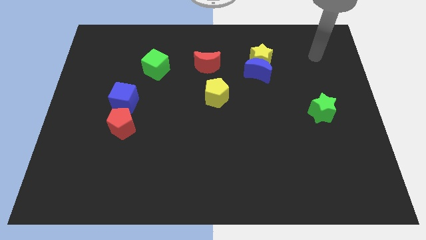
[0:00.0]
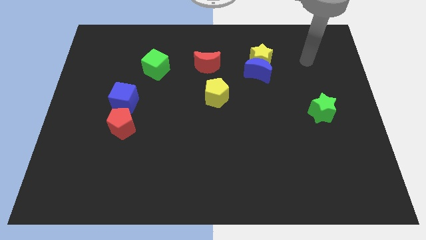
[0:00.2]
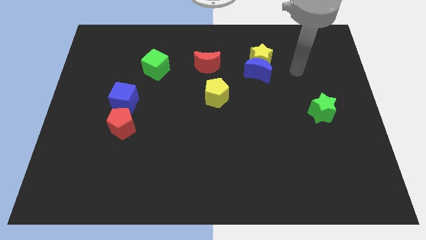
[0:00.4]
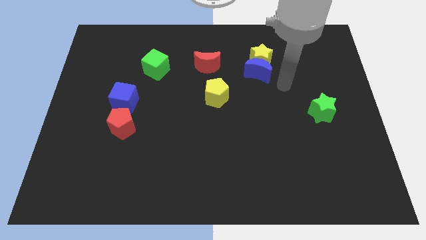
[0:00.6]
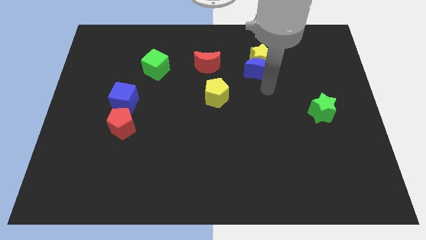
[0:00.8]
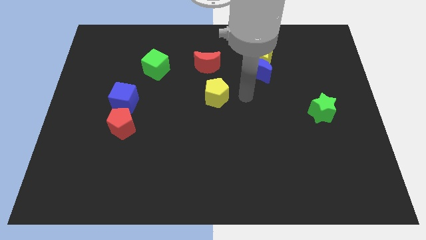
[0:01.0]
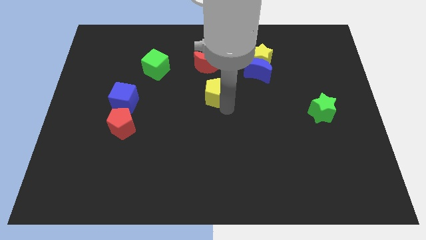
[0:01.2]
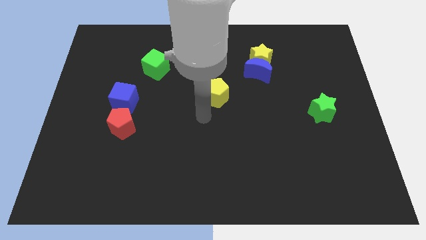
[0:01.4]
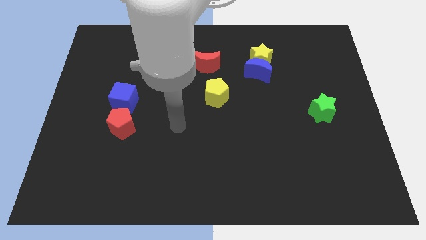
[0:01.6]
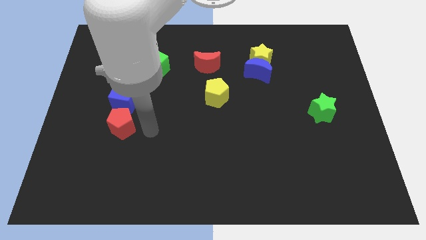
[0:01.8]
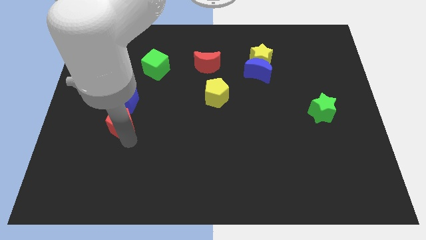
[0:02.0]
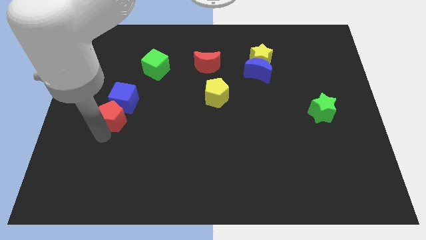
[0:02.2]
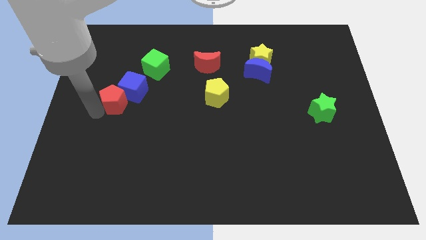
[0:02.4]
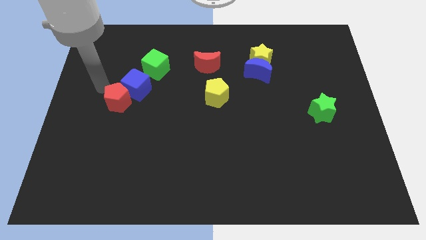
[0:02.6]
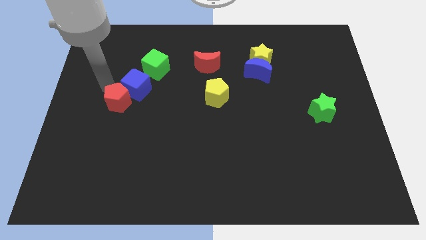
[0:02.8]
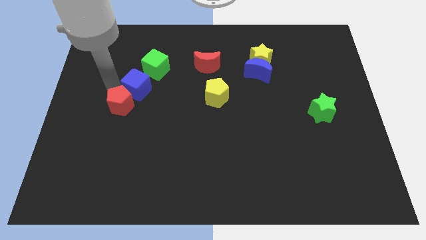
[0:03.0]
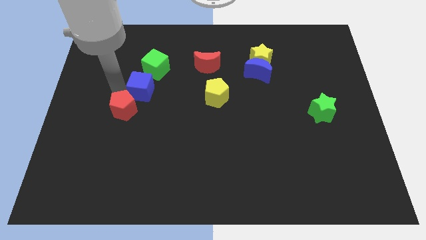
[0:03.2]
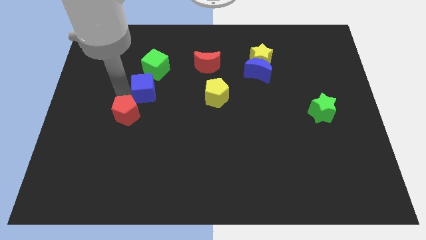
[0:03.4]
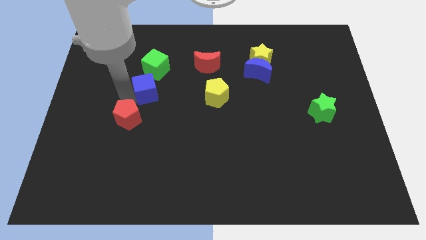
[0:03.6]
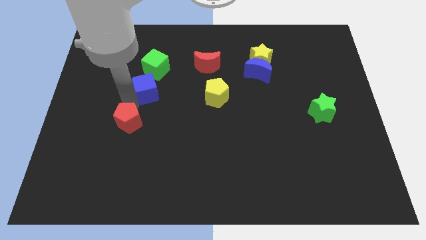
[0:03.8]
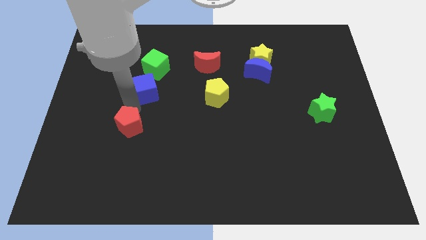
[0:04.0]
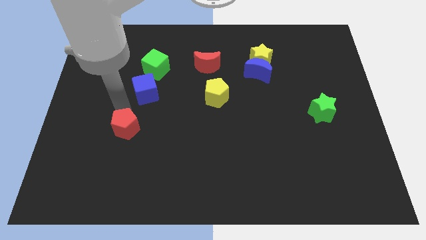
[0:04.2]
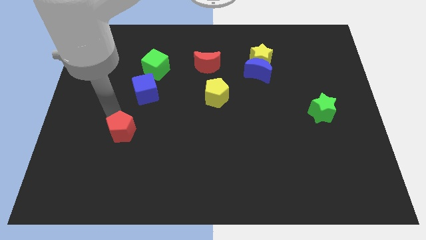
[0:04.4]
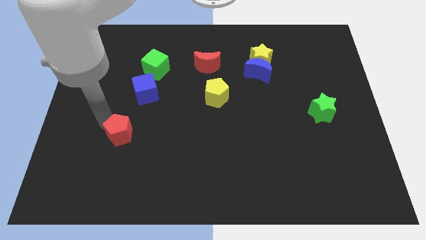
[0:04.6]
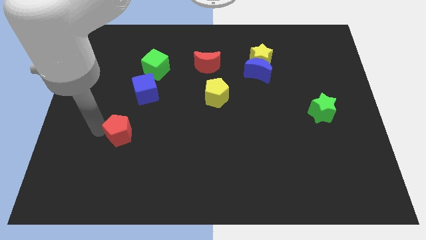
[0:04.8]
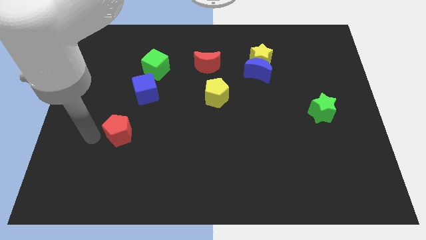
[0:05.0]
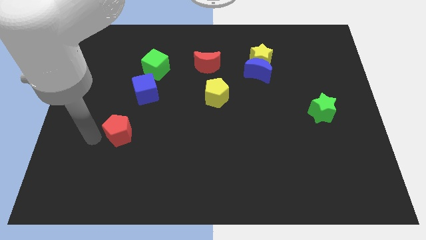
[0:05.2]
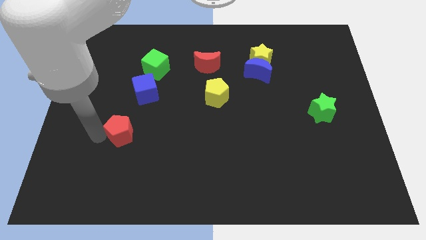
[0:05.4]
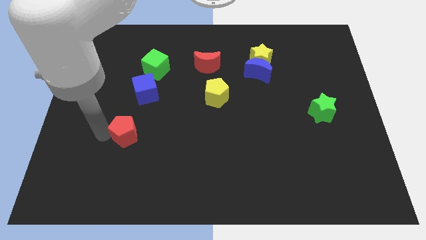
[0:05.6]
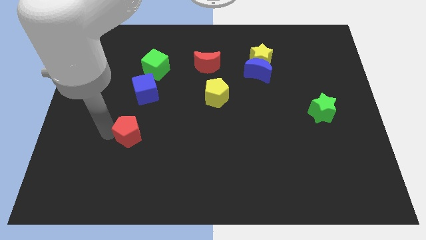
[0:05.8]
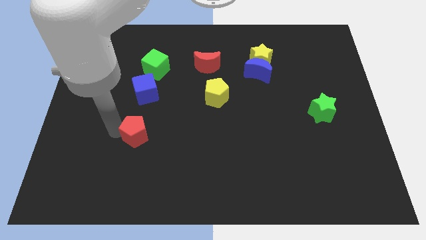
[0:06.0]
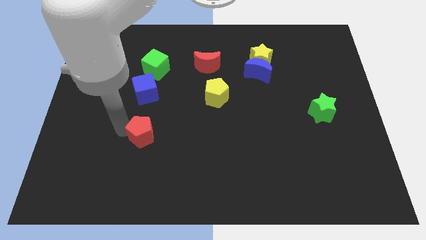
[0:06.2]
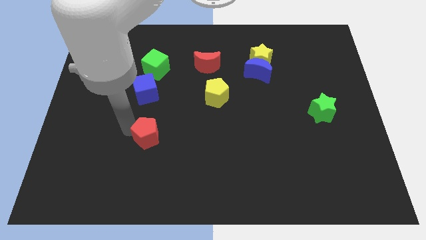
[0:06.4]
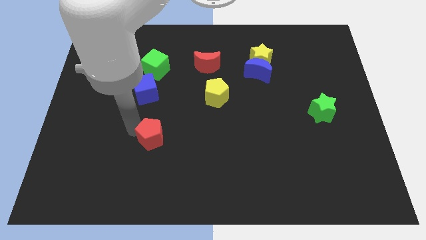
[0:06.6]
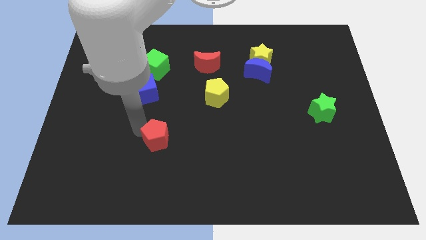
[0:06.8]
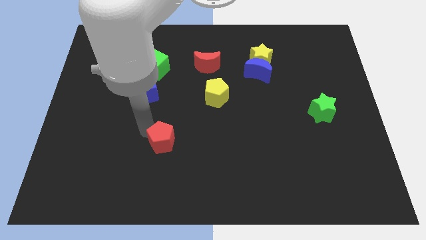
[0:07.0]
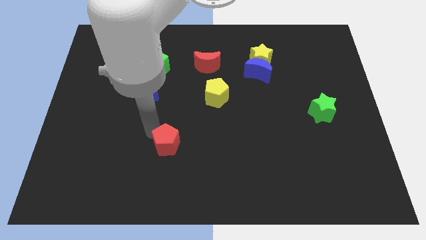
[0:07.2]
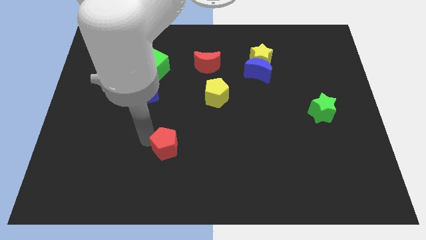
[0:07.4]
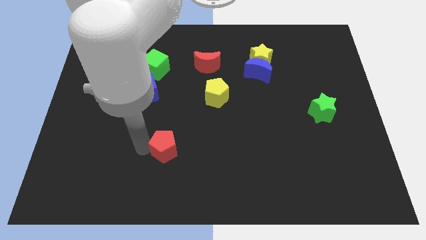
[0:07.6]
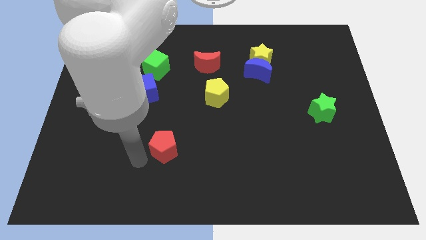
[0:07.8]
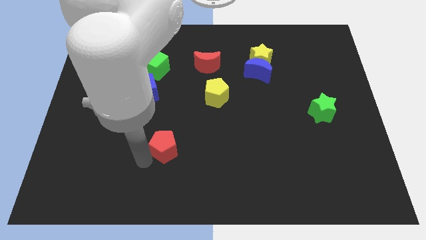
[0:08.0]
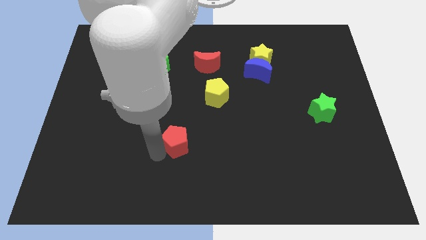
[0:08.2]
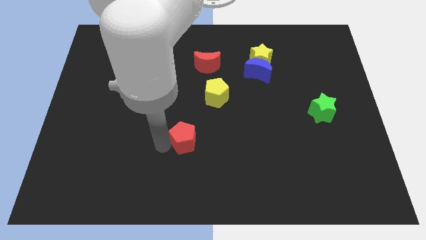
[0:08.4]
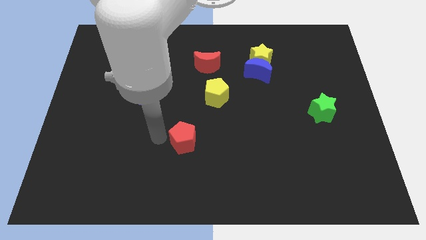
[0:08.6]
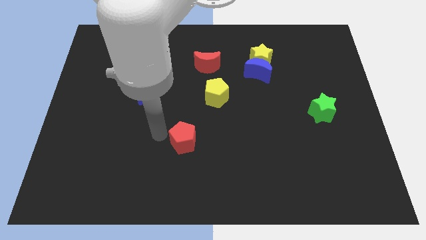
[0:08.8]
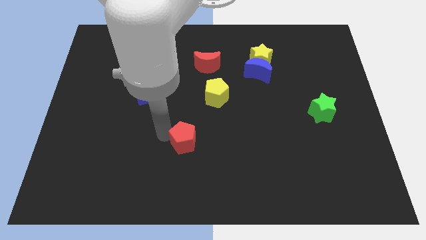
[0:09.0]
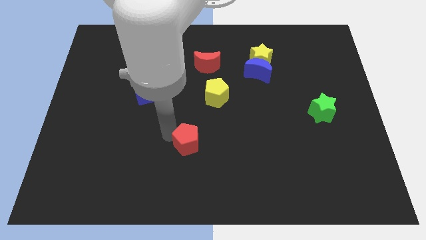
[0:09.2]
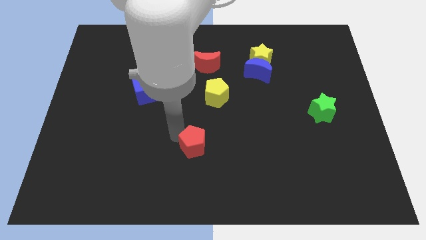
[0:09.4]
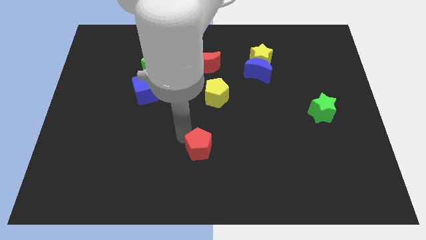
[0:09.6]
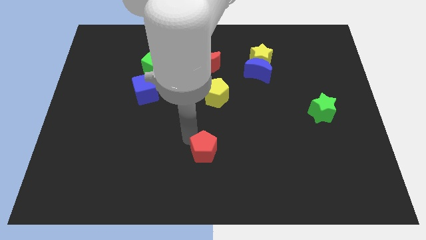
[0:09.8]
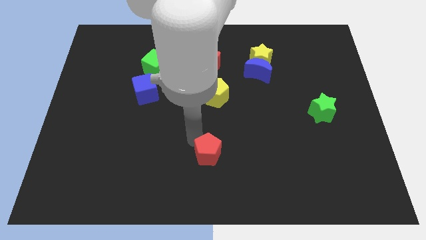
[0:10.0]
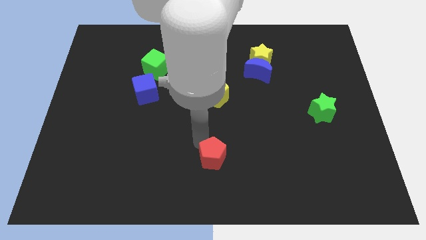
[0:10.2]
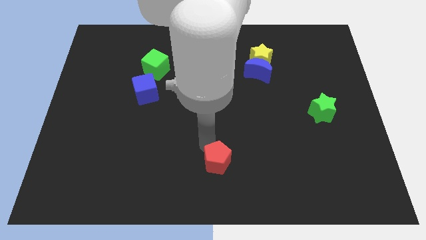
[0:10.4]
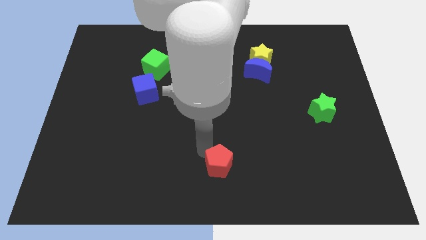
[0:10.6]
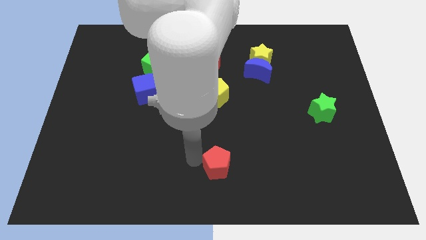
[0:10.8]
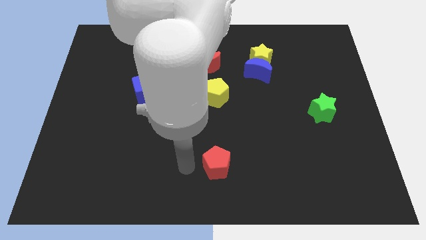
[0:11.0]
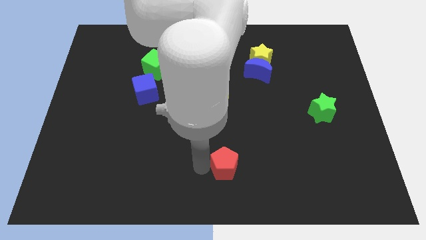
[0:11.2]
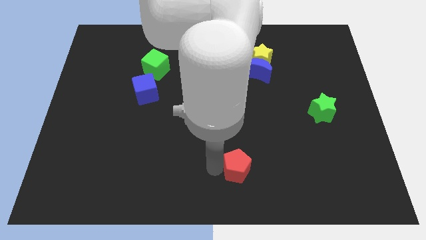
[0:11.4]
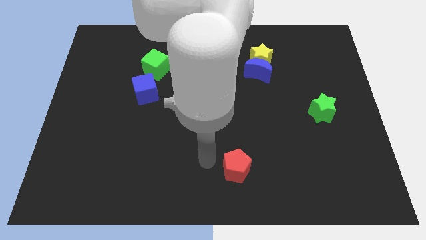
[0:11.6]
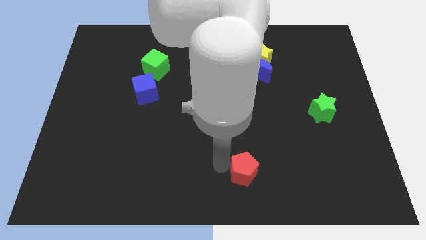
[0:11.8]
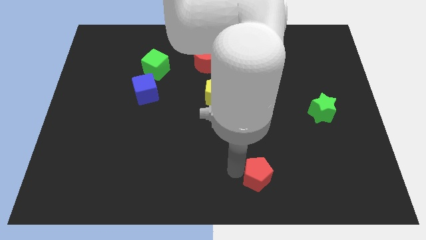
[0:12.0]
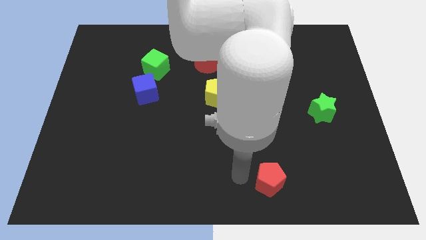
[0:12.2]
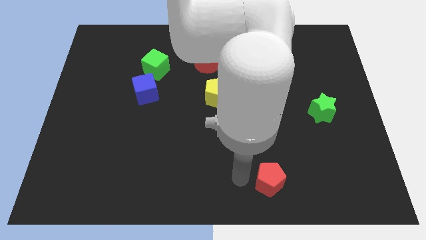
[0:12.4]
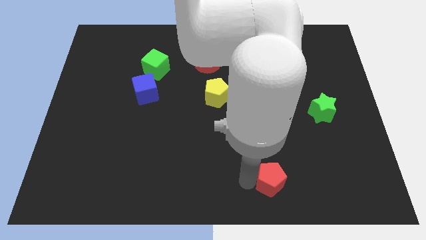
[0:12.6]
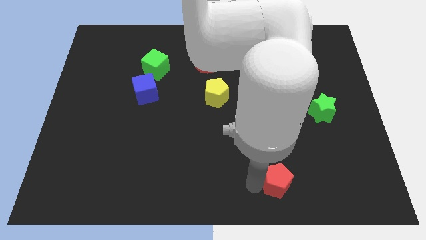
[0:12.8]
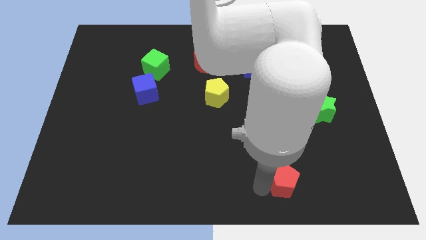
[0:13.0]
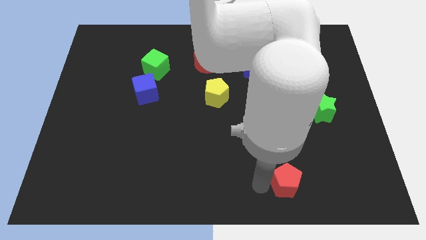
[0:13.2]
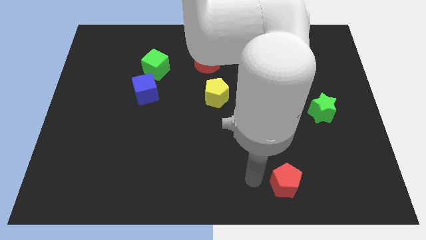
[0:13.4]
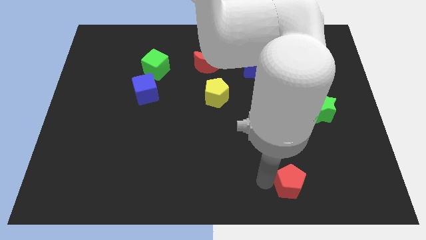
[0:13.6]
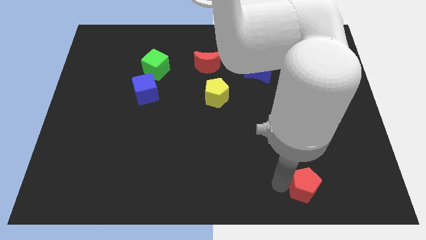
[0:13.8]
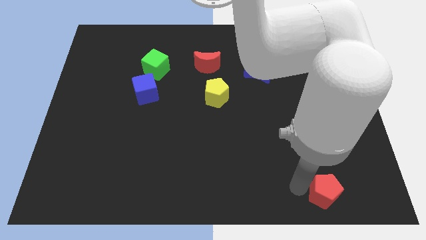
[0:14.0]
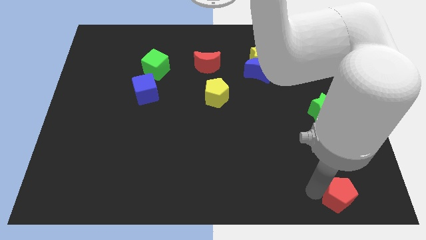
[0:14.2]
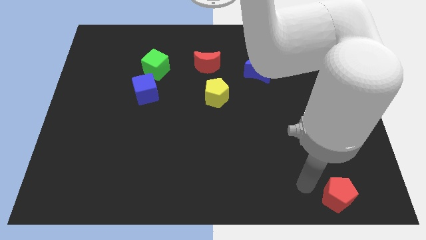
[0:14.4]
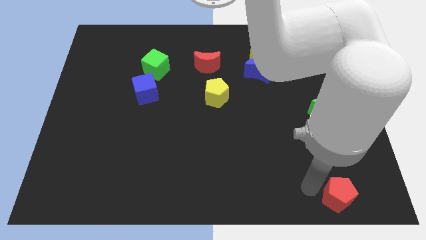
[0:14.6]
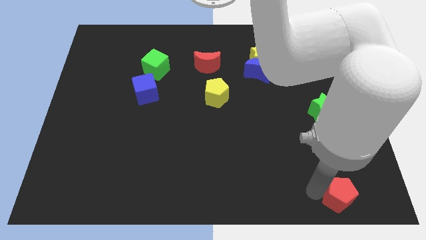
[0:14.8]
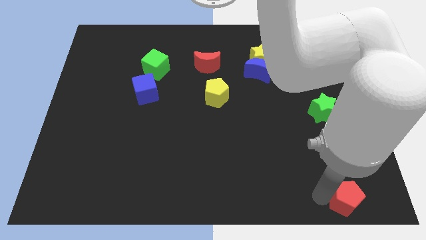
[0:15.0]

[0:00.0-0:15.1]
slide the red pentagon to the bottom right
